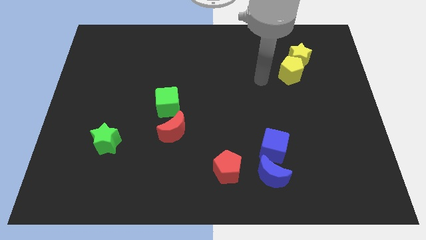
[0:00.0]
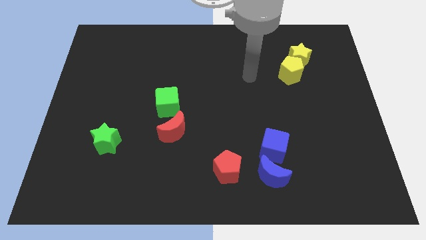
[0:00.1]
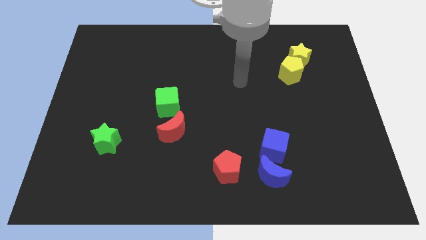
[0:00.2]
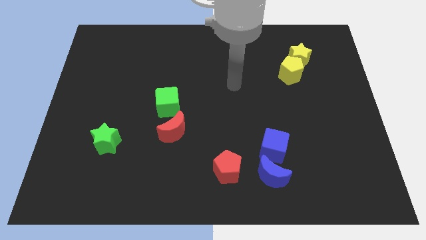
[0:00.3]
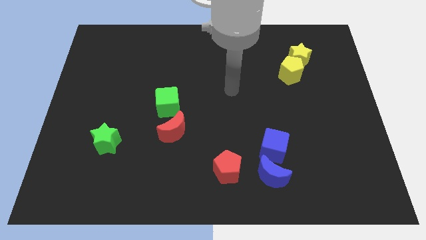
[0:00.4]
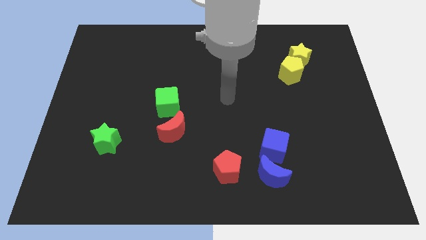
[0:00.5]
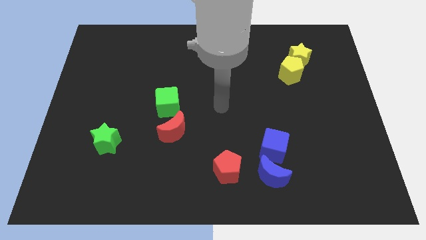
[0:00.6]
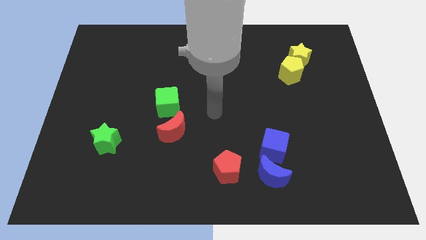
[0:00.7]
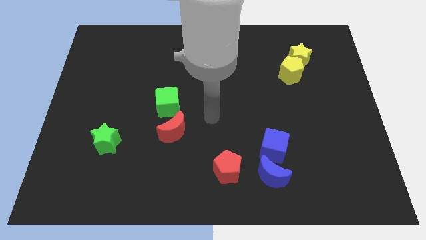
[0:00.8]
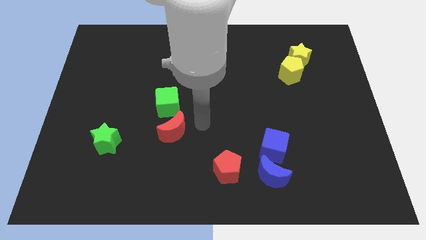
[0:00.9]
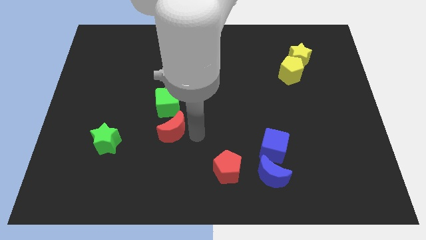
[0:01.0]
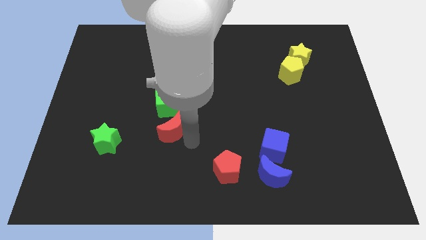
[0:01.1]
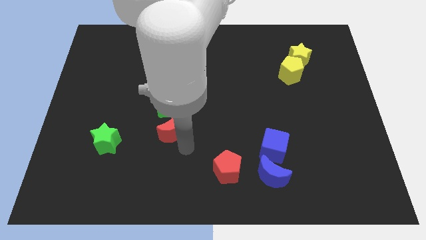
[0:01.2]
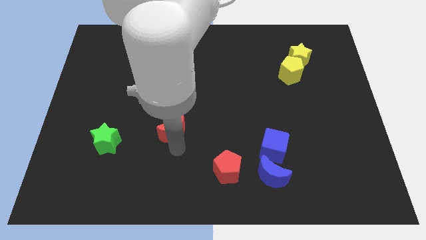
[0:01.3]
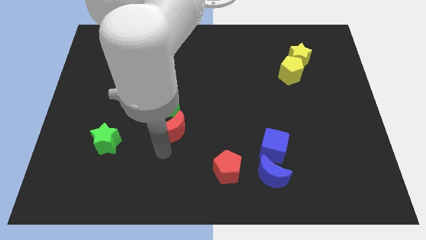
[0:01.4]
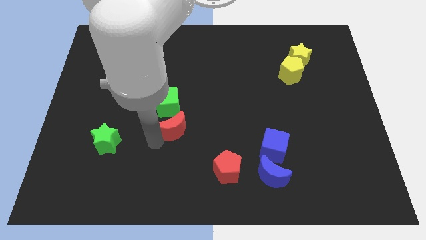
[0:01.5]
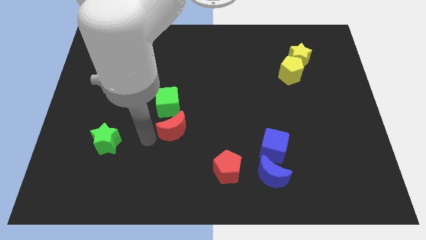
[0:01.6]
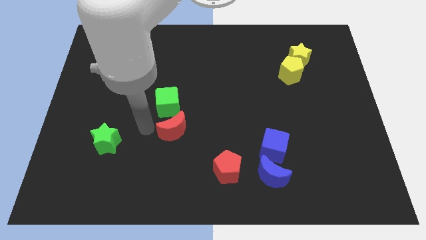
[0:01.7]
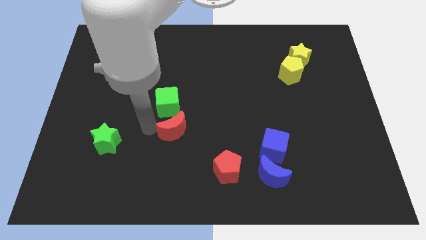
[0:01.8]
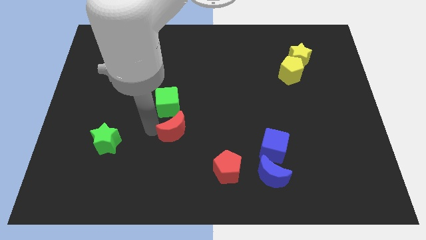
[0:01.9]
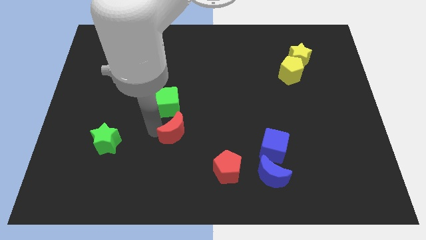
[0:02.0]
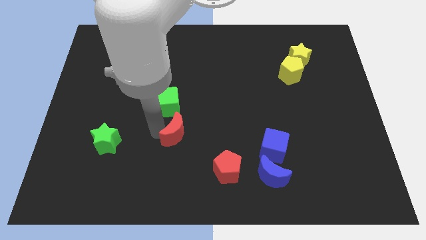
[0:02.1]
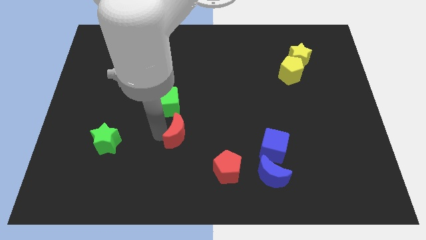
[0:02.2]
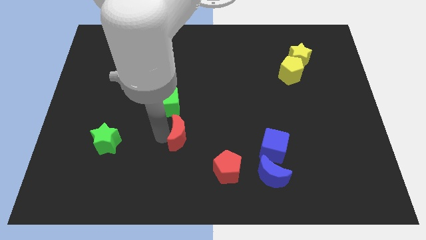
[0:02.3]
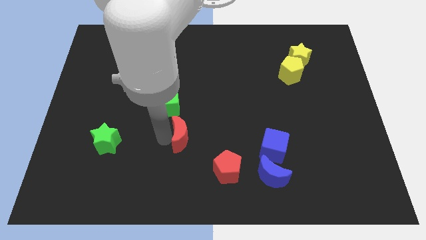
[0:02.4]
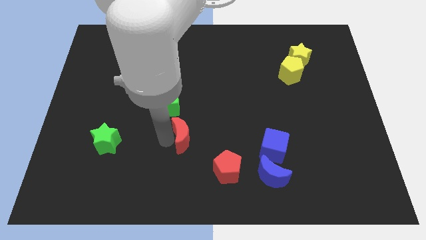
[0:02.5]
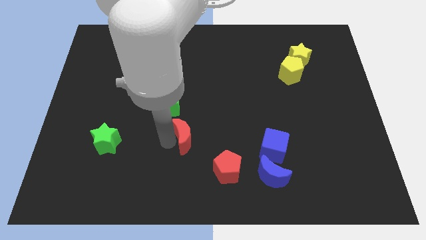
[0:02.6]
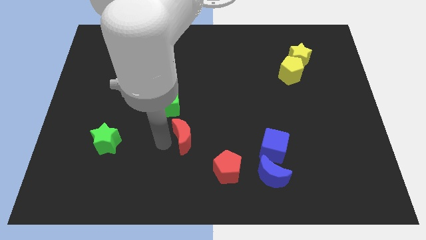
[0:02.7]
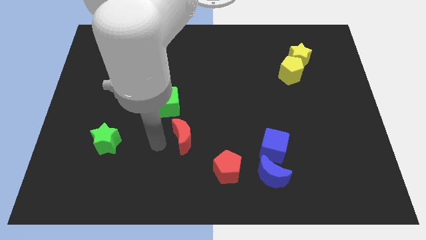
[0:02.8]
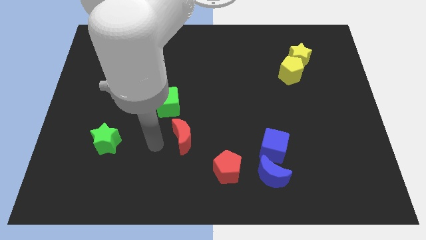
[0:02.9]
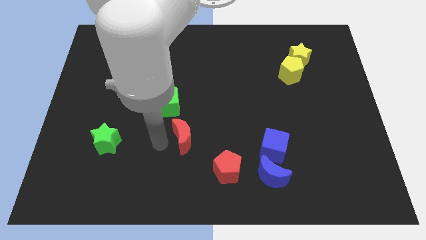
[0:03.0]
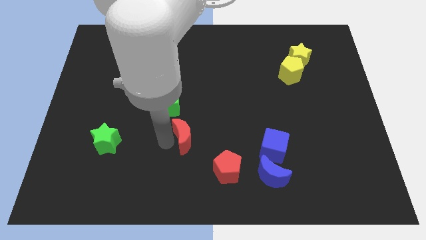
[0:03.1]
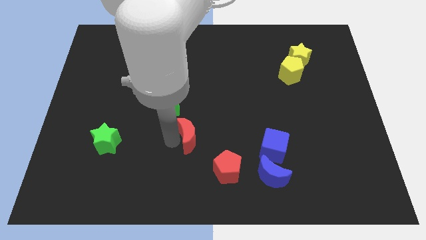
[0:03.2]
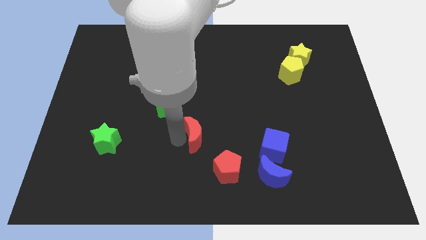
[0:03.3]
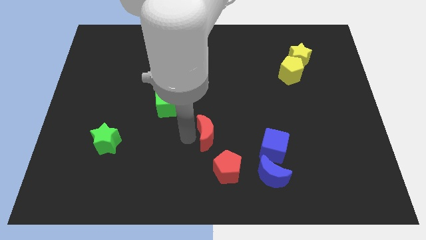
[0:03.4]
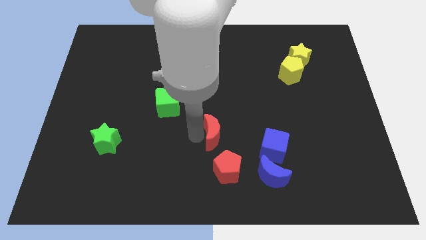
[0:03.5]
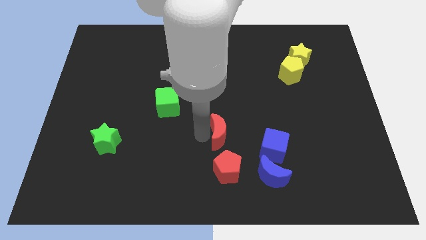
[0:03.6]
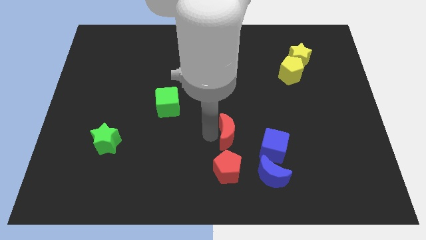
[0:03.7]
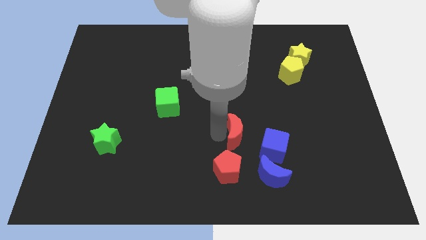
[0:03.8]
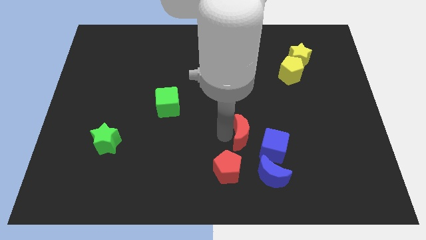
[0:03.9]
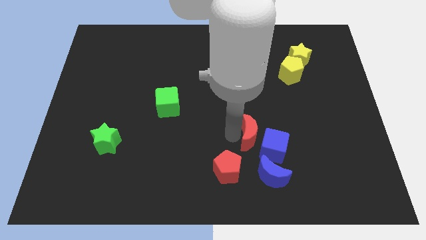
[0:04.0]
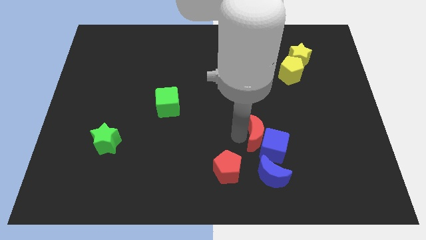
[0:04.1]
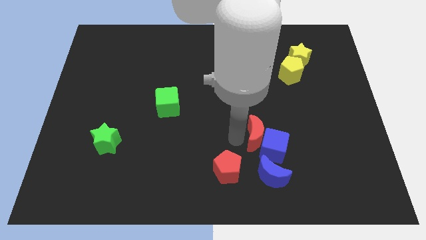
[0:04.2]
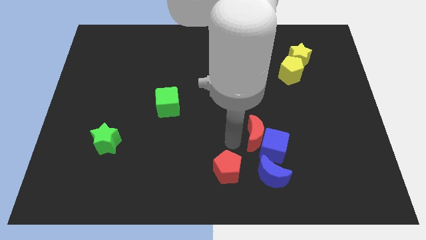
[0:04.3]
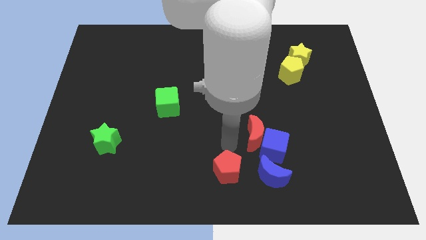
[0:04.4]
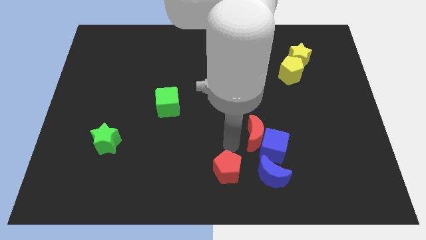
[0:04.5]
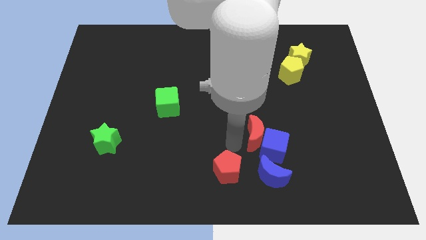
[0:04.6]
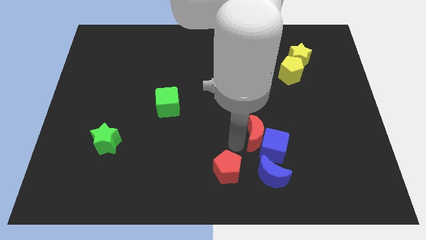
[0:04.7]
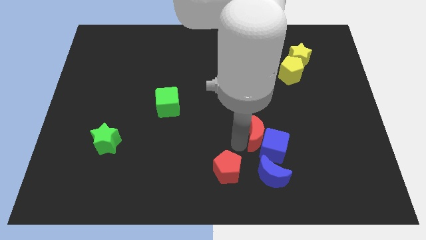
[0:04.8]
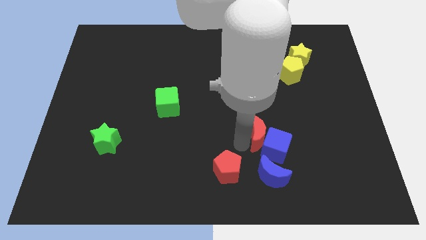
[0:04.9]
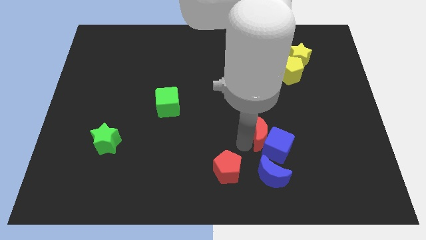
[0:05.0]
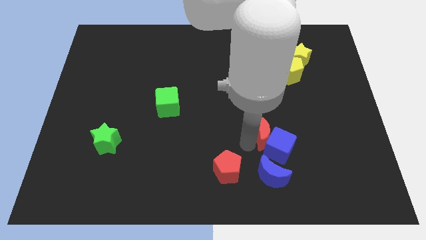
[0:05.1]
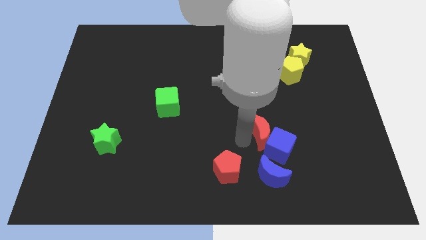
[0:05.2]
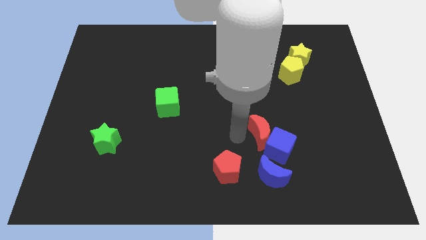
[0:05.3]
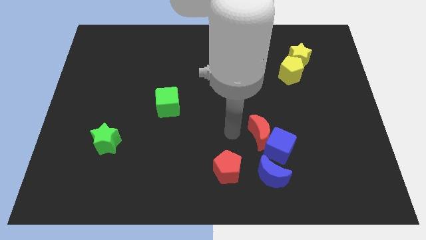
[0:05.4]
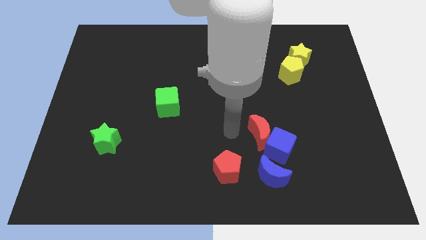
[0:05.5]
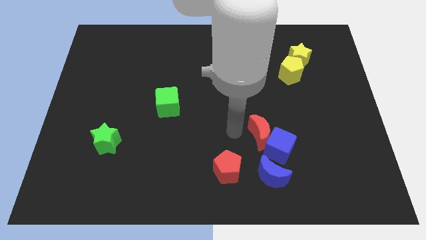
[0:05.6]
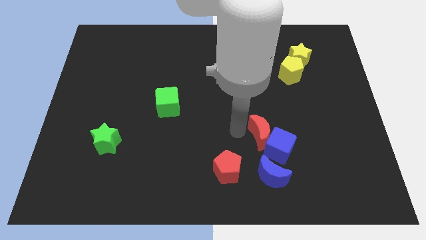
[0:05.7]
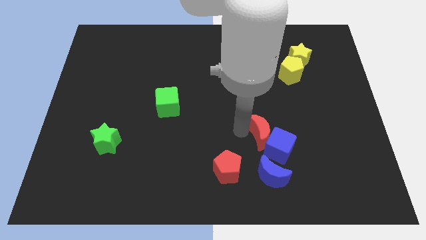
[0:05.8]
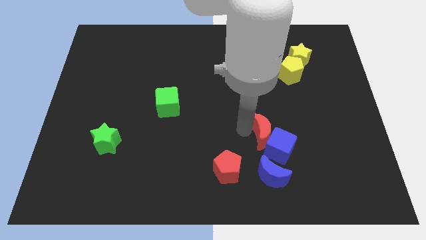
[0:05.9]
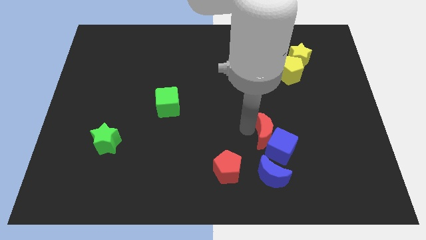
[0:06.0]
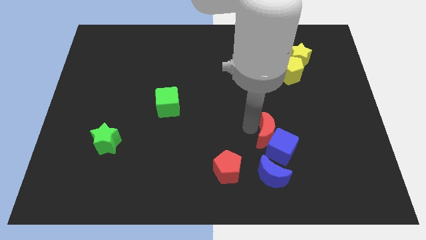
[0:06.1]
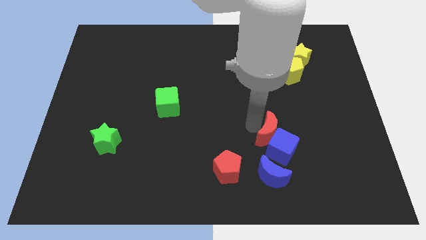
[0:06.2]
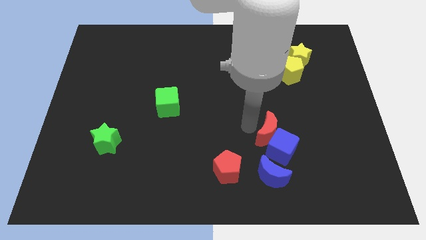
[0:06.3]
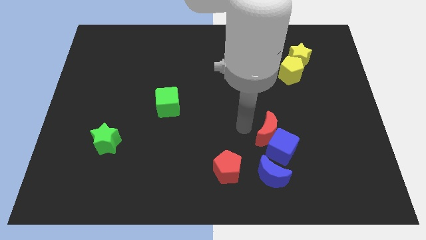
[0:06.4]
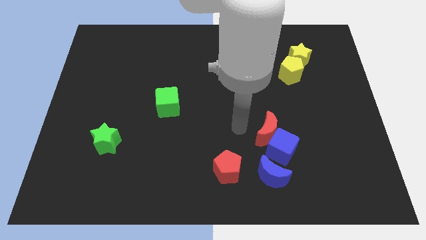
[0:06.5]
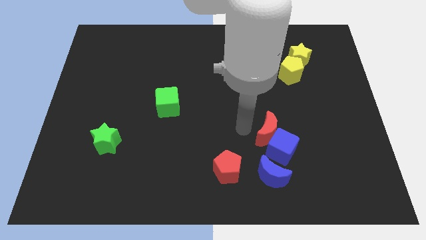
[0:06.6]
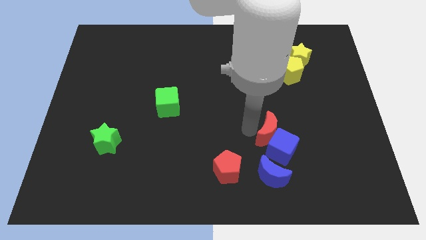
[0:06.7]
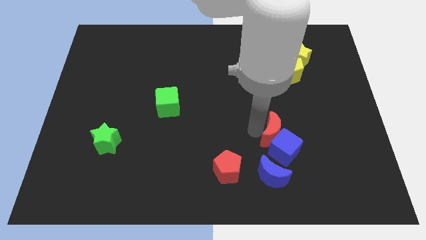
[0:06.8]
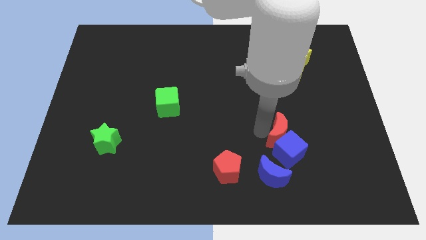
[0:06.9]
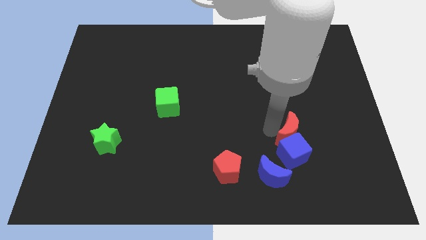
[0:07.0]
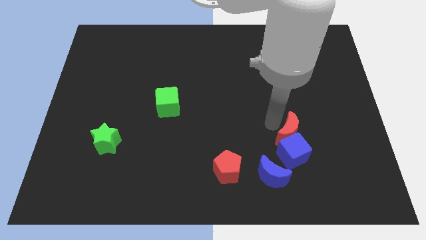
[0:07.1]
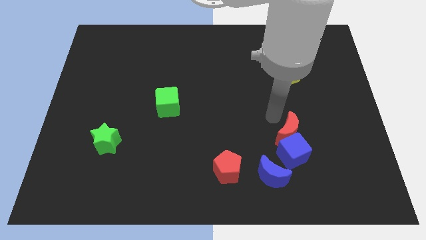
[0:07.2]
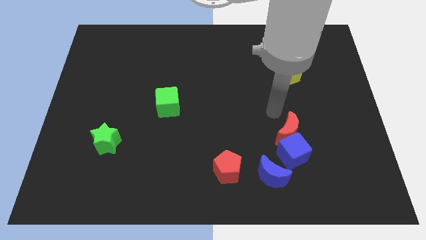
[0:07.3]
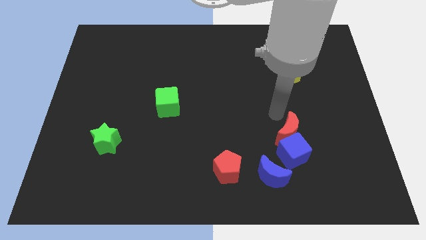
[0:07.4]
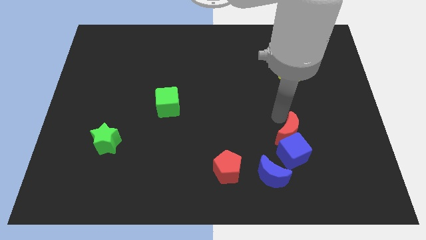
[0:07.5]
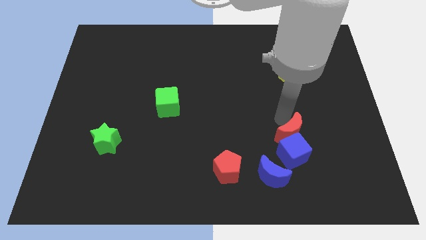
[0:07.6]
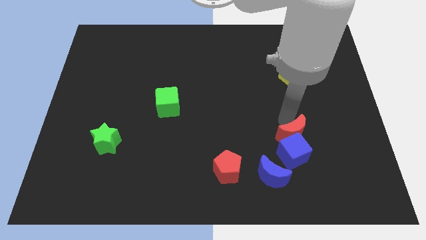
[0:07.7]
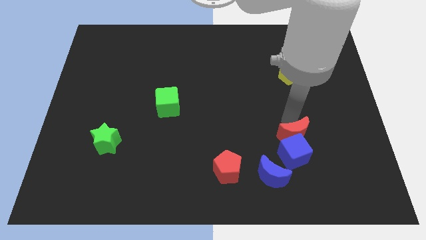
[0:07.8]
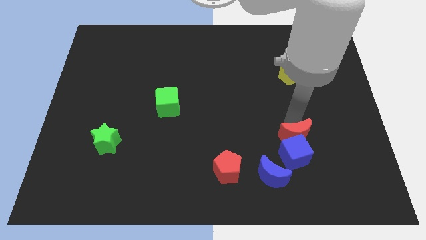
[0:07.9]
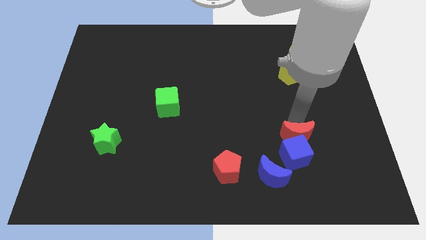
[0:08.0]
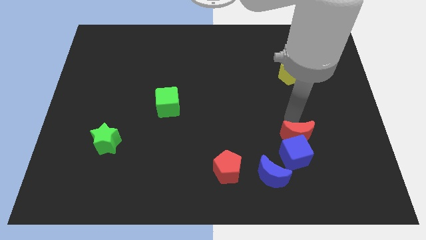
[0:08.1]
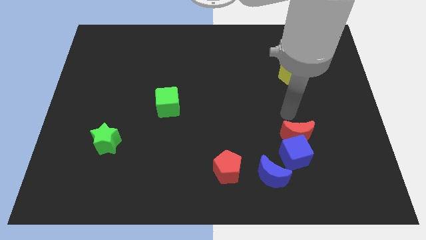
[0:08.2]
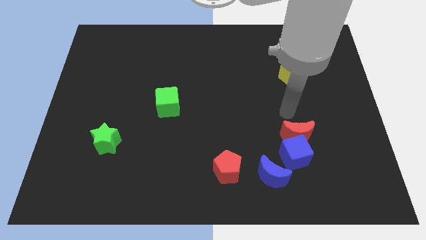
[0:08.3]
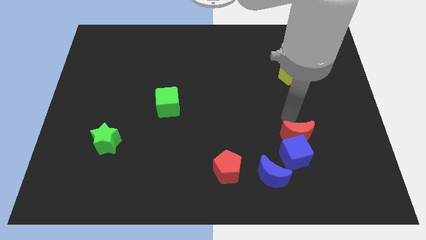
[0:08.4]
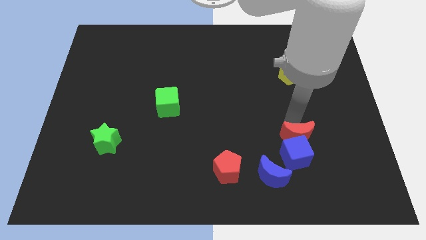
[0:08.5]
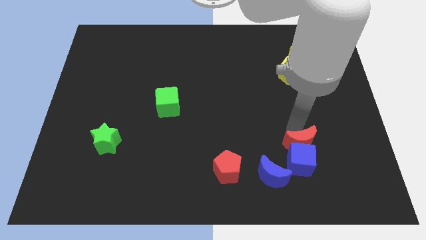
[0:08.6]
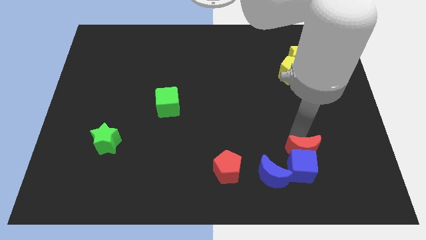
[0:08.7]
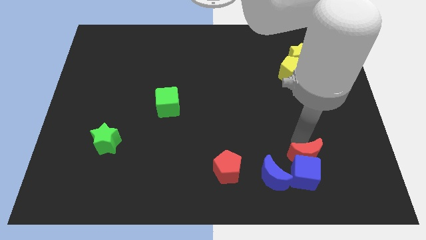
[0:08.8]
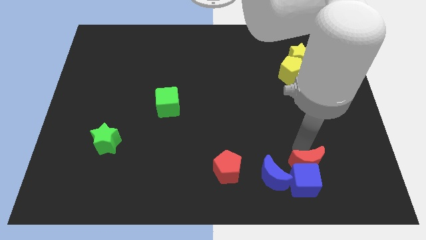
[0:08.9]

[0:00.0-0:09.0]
put the red moon just right of the blue moon
